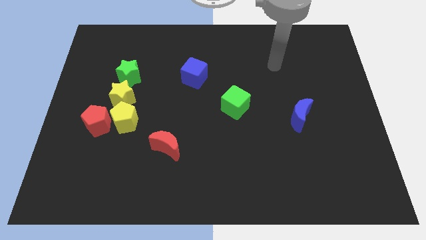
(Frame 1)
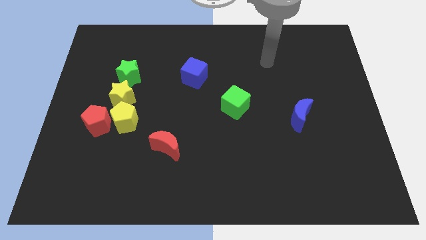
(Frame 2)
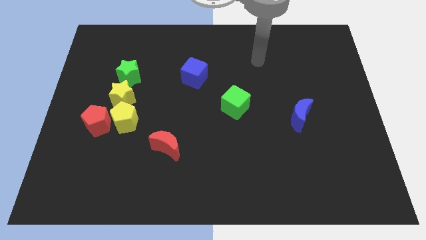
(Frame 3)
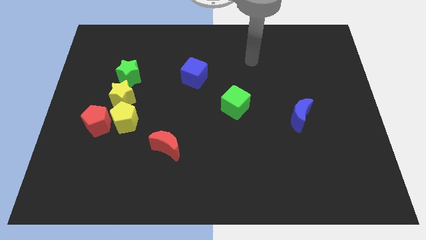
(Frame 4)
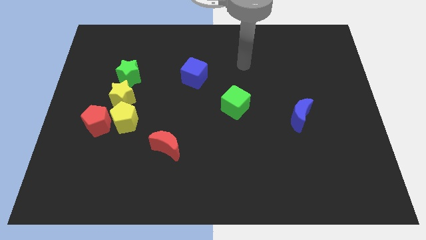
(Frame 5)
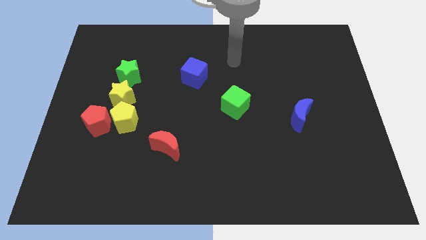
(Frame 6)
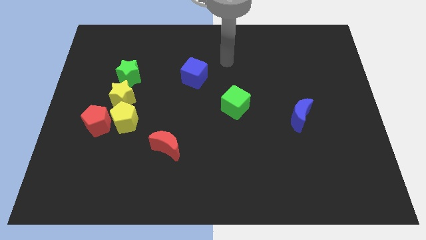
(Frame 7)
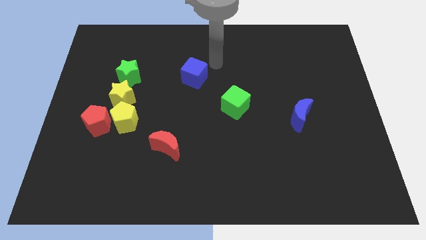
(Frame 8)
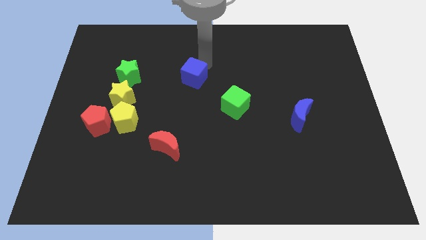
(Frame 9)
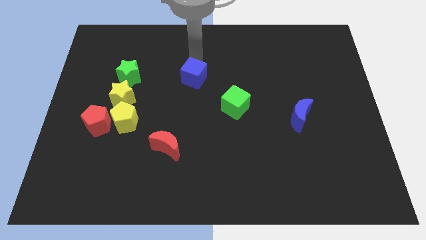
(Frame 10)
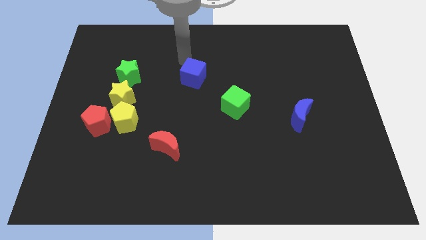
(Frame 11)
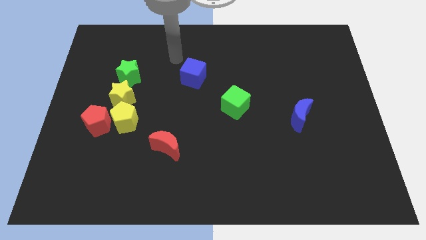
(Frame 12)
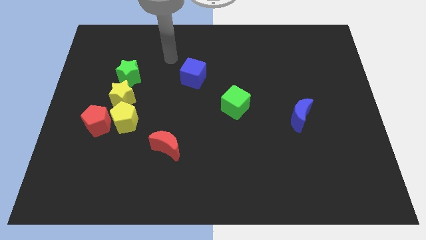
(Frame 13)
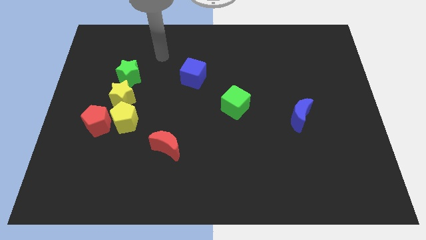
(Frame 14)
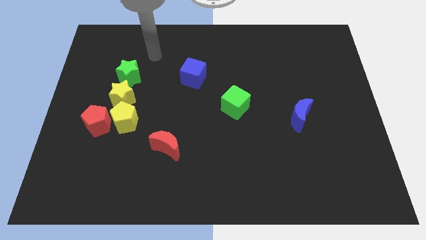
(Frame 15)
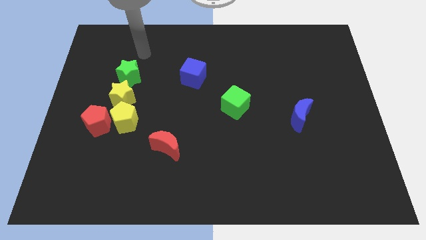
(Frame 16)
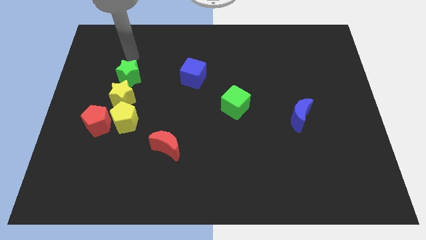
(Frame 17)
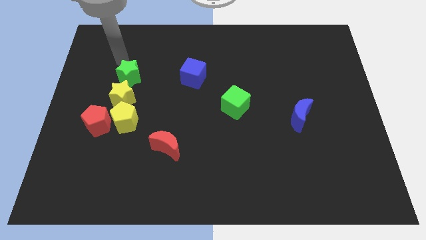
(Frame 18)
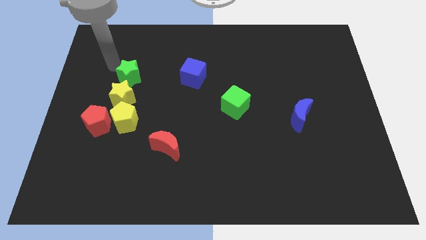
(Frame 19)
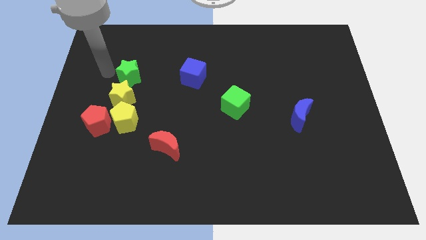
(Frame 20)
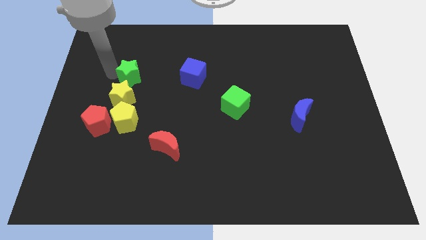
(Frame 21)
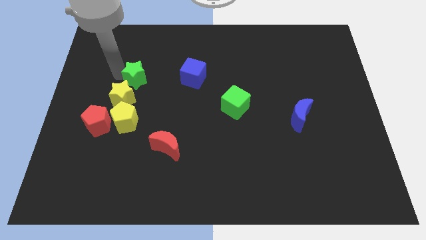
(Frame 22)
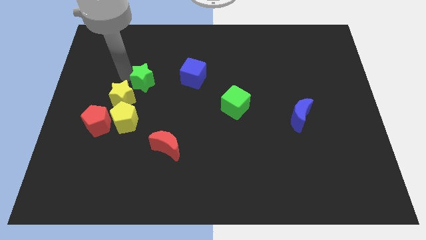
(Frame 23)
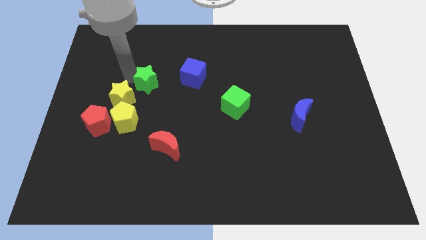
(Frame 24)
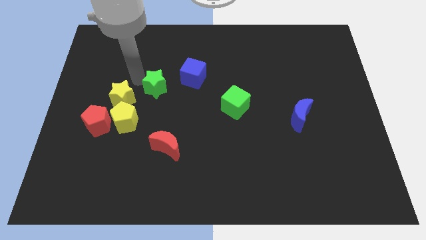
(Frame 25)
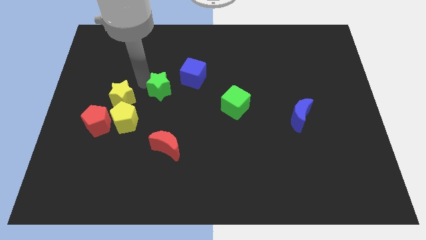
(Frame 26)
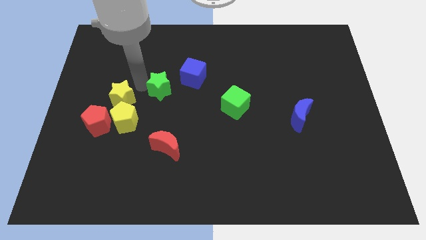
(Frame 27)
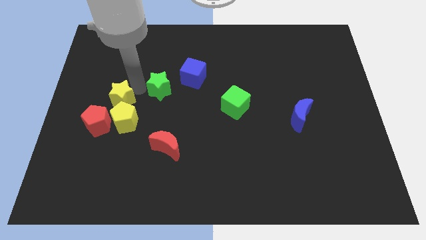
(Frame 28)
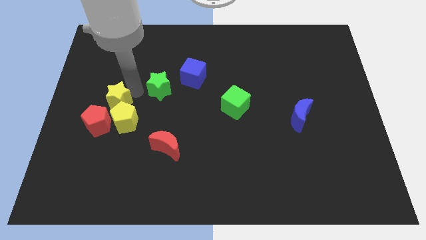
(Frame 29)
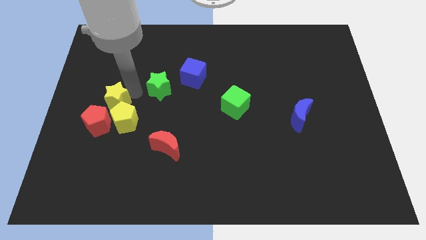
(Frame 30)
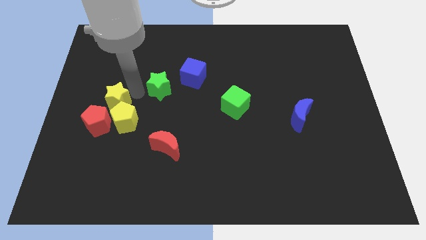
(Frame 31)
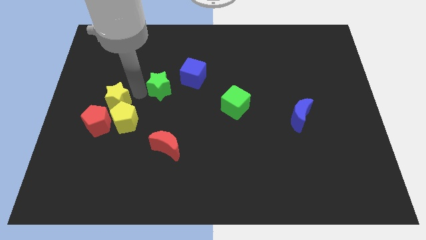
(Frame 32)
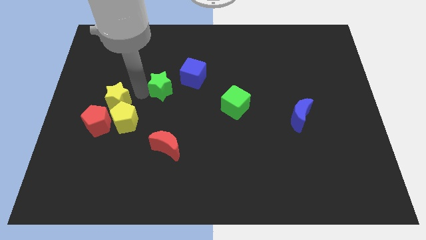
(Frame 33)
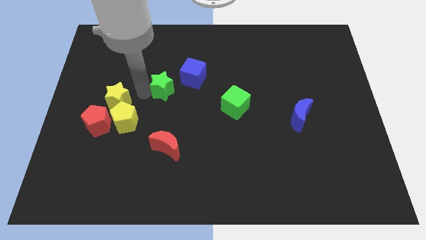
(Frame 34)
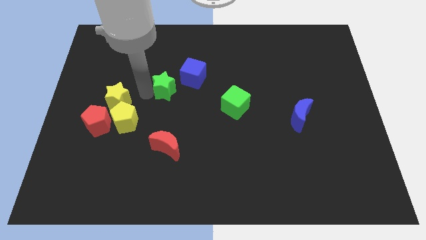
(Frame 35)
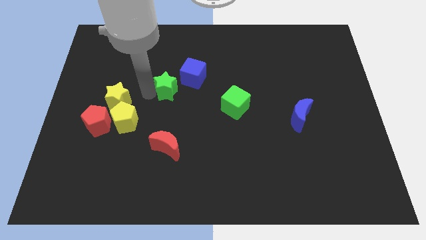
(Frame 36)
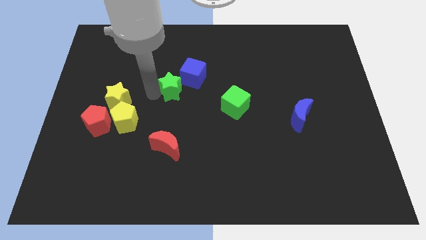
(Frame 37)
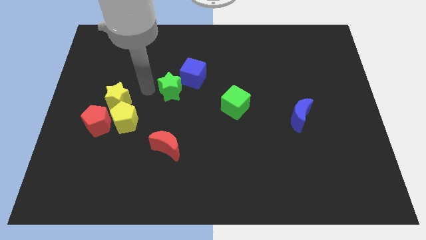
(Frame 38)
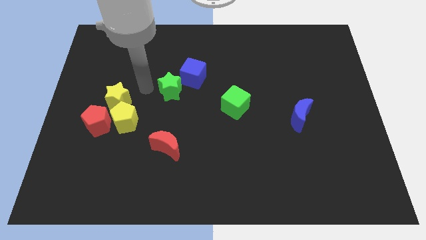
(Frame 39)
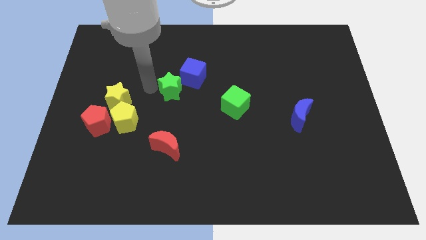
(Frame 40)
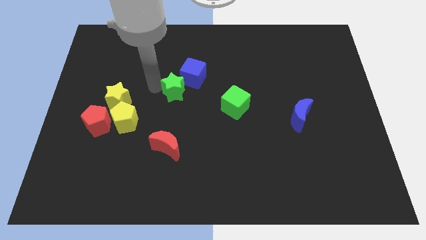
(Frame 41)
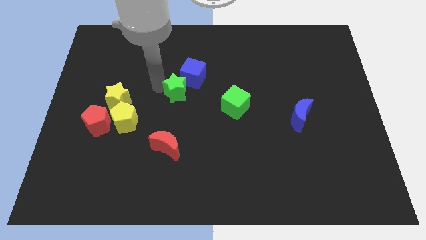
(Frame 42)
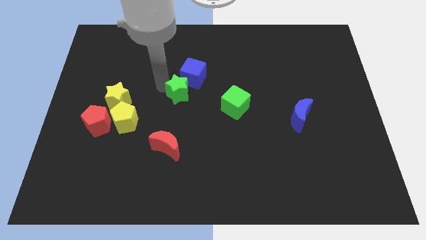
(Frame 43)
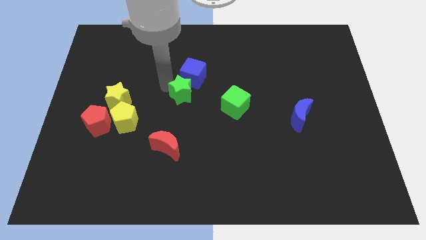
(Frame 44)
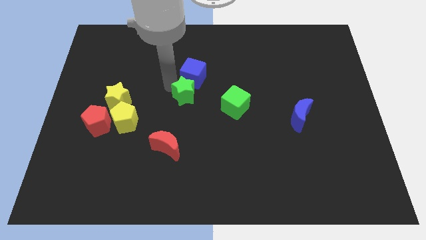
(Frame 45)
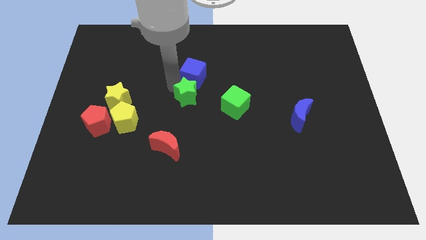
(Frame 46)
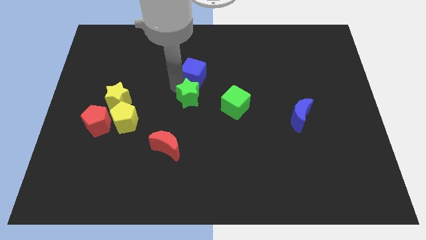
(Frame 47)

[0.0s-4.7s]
push the green star to the bottom right of the blue cube

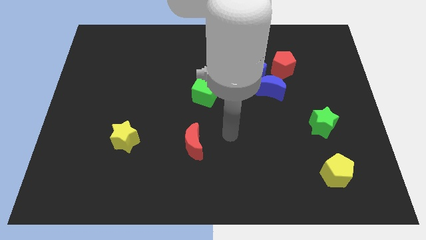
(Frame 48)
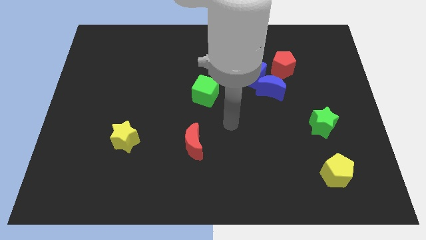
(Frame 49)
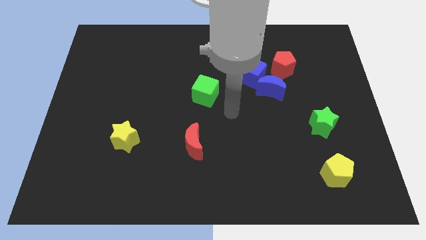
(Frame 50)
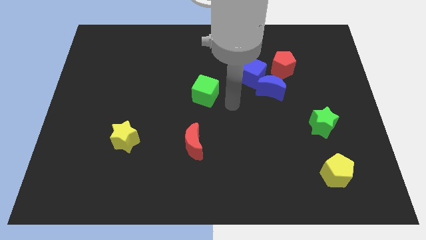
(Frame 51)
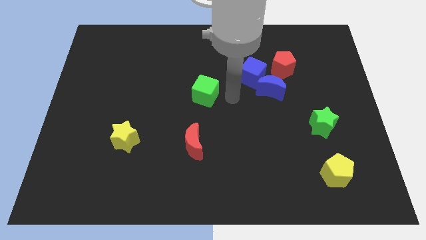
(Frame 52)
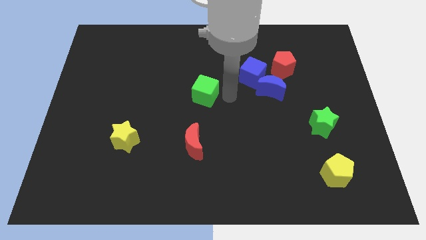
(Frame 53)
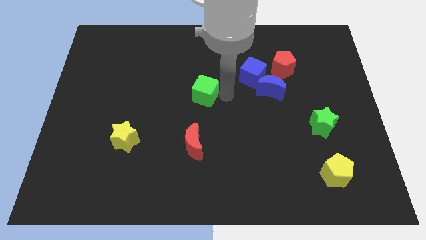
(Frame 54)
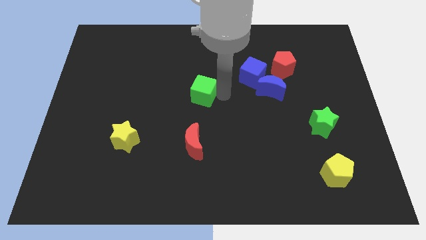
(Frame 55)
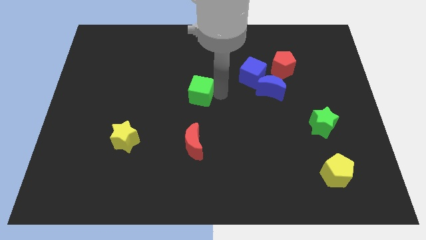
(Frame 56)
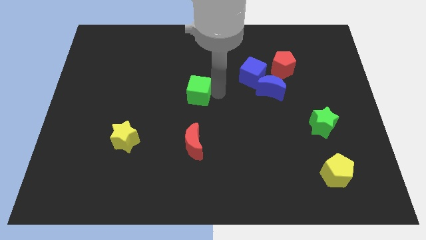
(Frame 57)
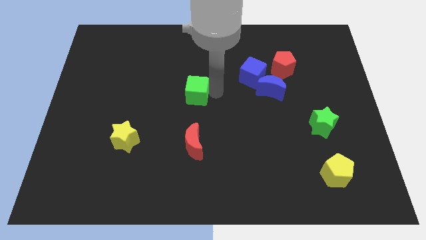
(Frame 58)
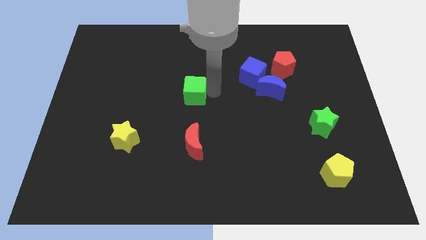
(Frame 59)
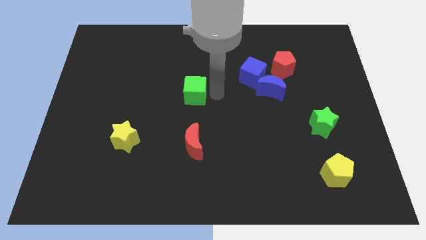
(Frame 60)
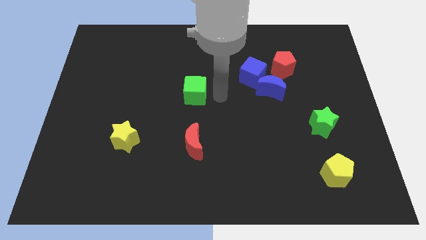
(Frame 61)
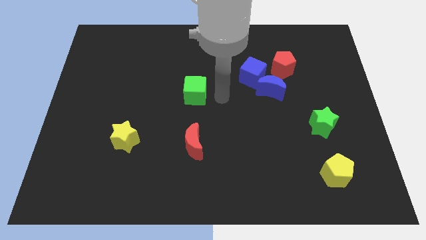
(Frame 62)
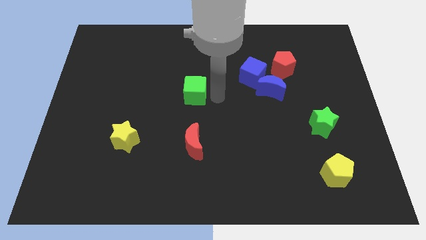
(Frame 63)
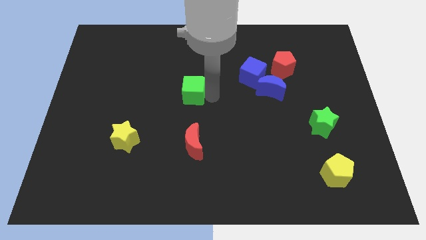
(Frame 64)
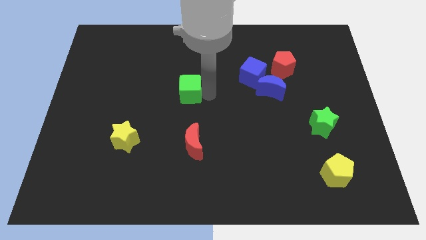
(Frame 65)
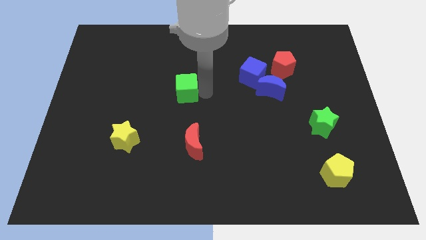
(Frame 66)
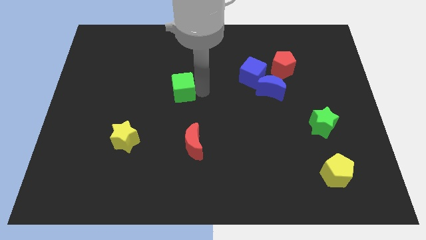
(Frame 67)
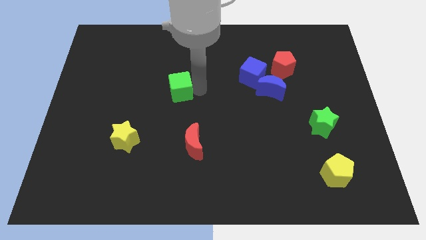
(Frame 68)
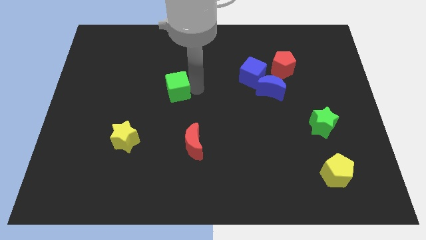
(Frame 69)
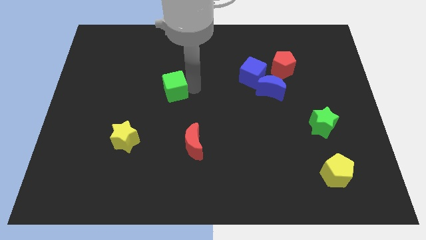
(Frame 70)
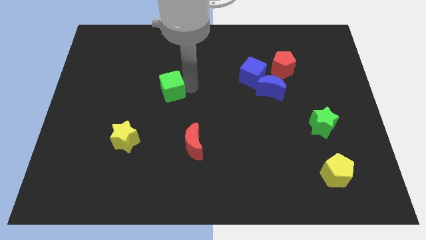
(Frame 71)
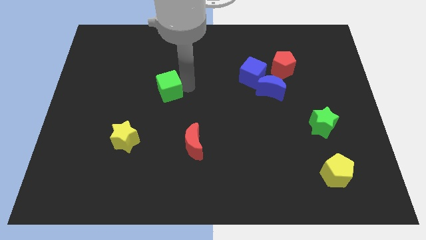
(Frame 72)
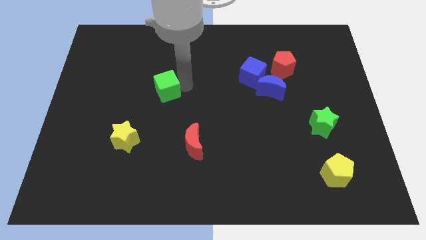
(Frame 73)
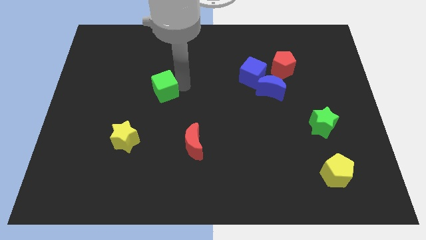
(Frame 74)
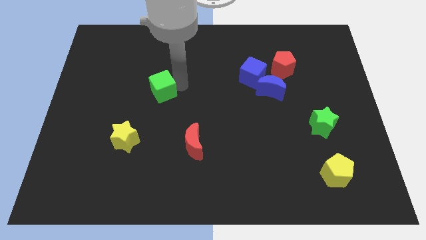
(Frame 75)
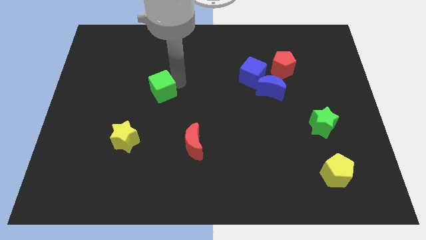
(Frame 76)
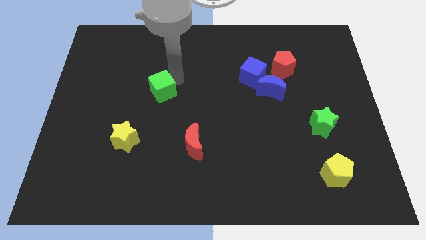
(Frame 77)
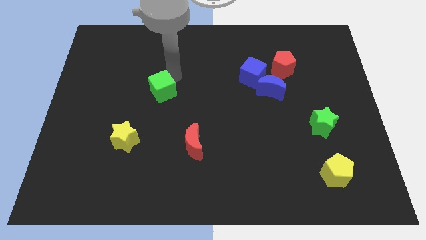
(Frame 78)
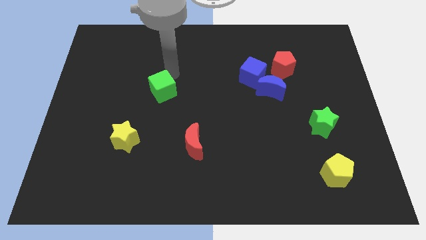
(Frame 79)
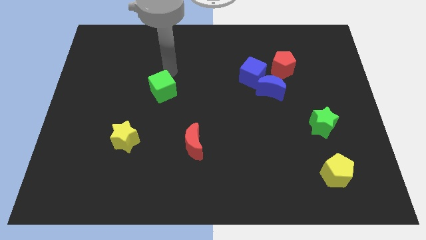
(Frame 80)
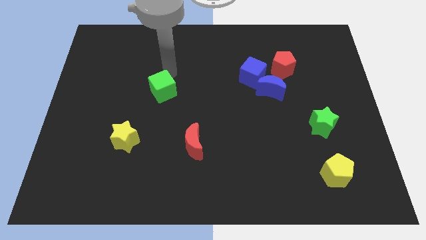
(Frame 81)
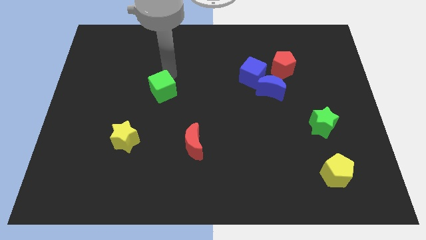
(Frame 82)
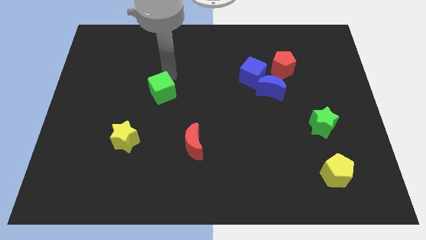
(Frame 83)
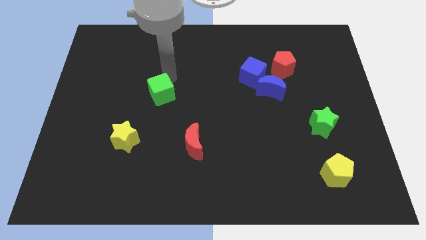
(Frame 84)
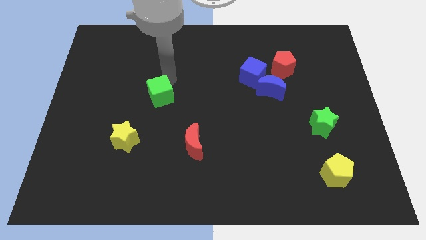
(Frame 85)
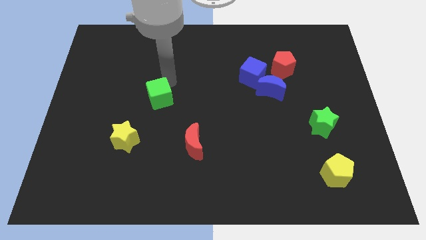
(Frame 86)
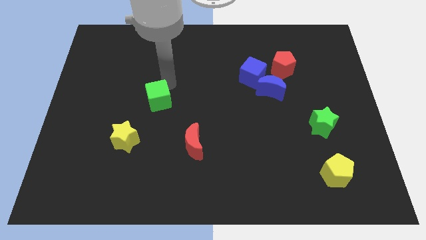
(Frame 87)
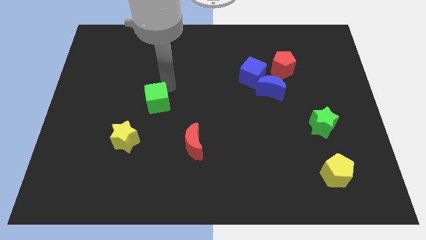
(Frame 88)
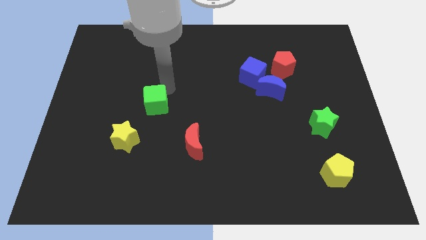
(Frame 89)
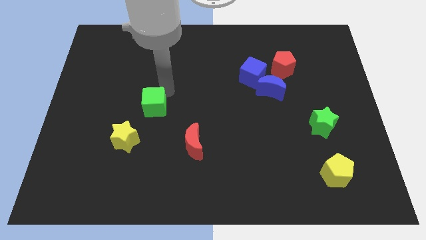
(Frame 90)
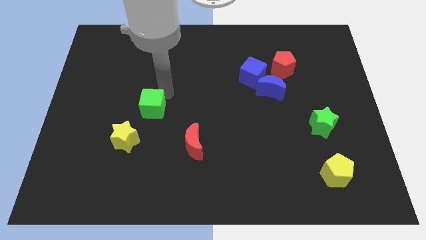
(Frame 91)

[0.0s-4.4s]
slide the green cube to the top of the yellow star
